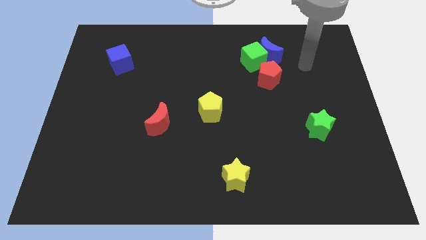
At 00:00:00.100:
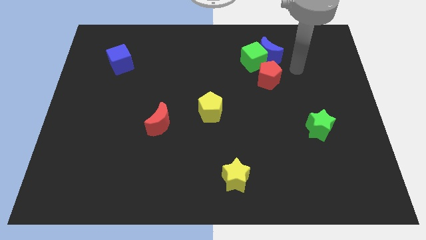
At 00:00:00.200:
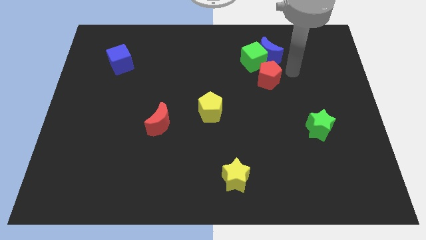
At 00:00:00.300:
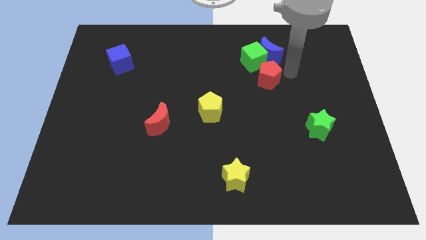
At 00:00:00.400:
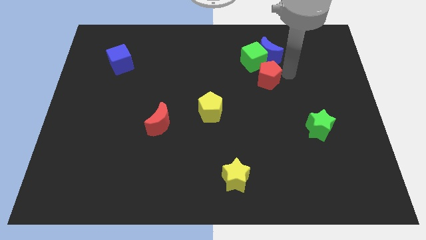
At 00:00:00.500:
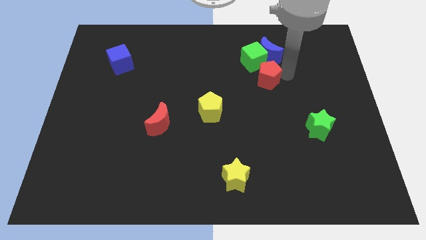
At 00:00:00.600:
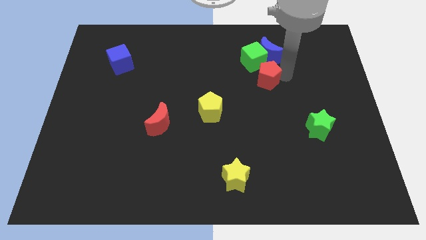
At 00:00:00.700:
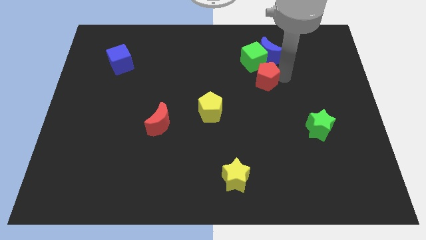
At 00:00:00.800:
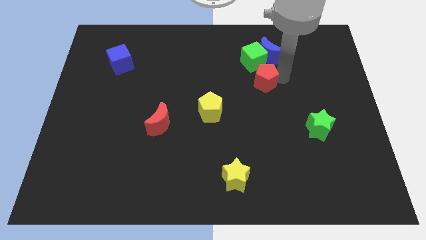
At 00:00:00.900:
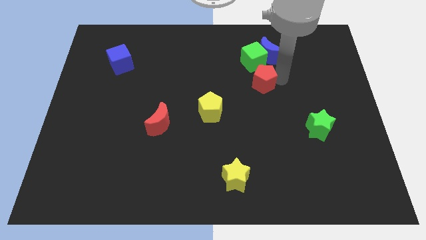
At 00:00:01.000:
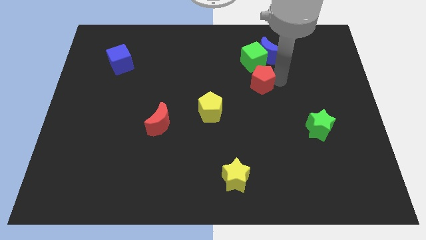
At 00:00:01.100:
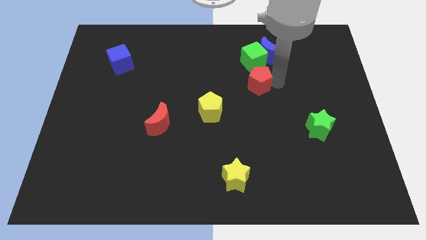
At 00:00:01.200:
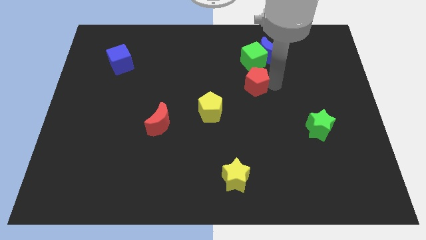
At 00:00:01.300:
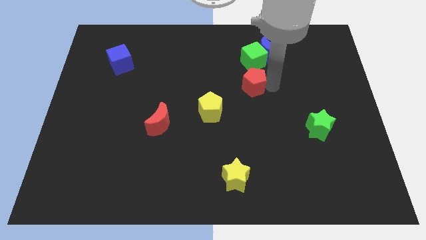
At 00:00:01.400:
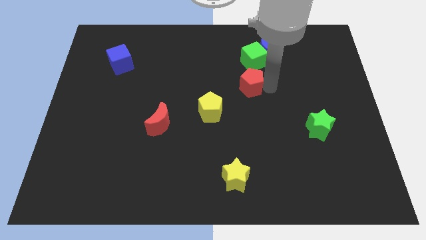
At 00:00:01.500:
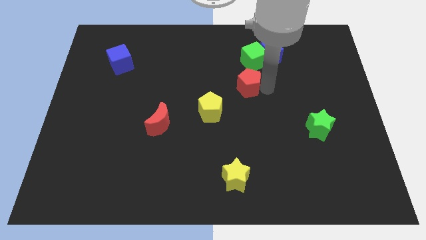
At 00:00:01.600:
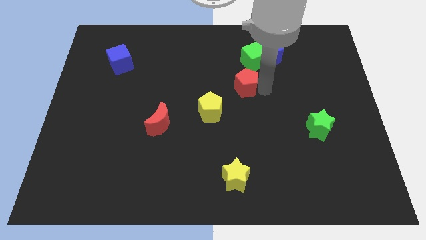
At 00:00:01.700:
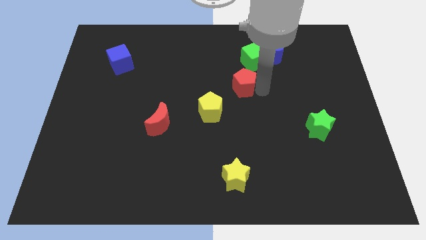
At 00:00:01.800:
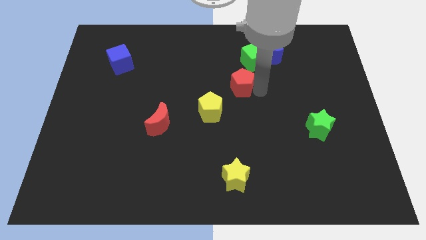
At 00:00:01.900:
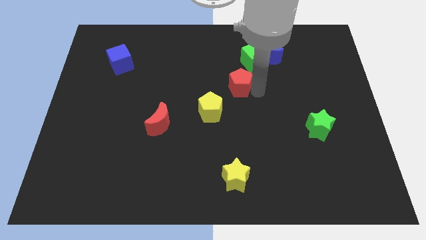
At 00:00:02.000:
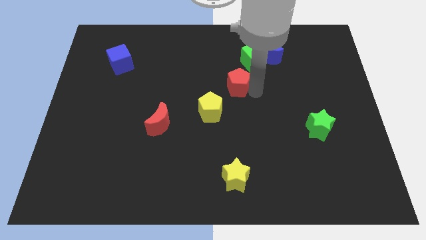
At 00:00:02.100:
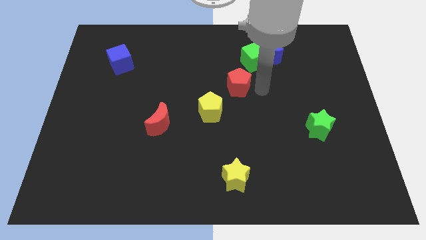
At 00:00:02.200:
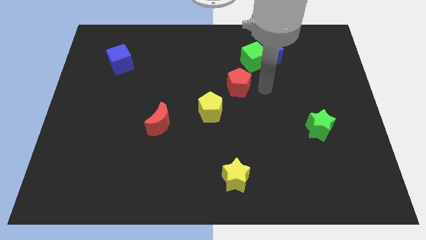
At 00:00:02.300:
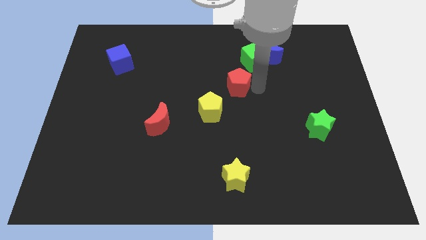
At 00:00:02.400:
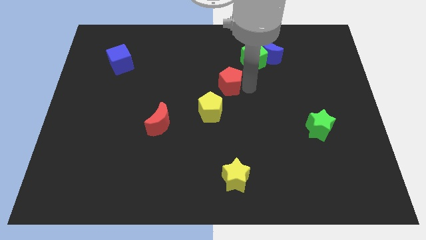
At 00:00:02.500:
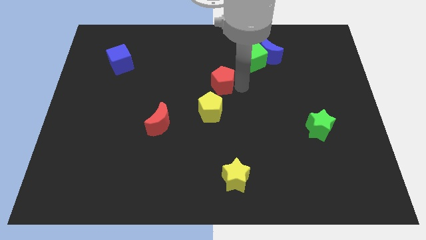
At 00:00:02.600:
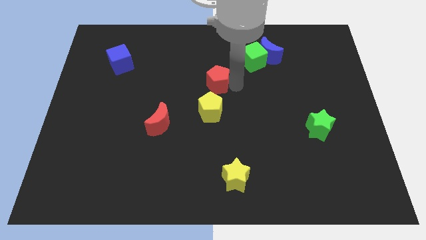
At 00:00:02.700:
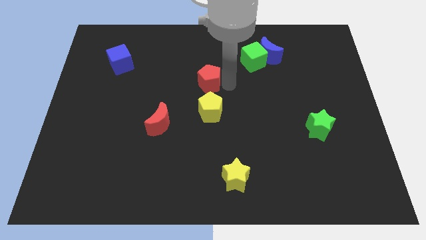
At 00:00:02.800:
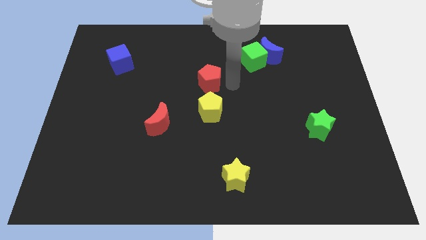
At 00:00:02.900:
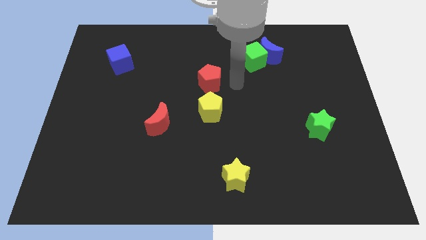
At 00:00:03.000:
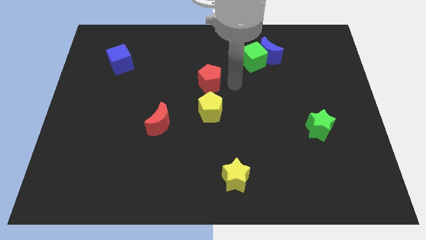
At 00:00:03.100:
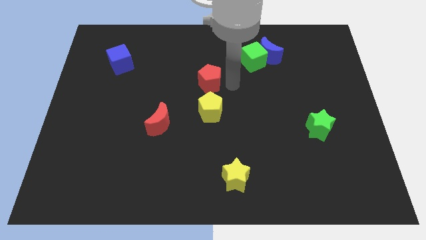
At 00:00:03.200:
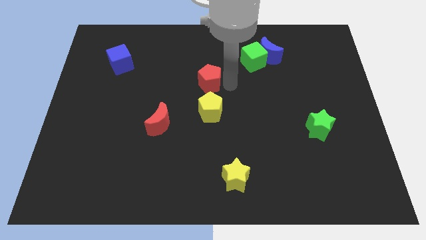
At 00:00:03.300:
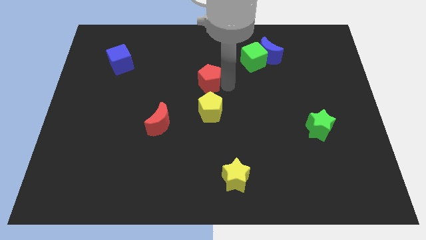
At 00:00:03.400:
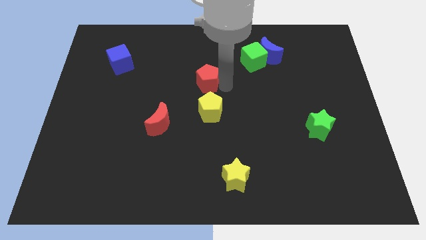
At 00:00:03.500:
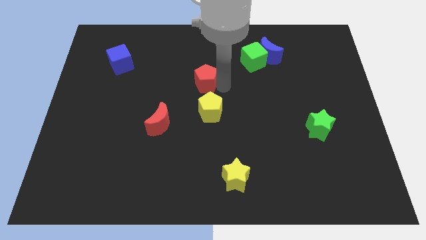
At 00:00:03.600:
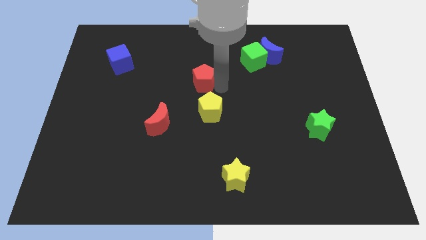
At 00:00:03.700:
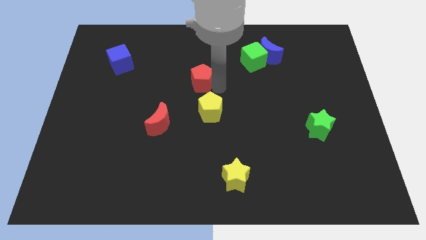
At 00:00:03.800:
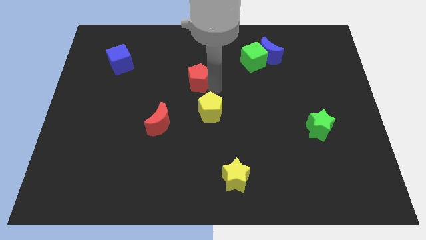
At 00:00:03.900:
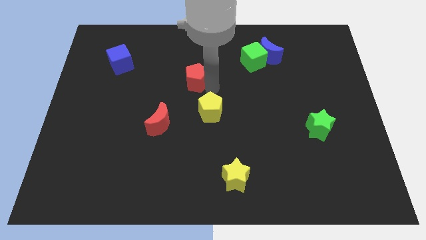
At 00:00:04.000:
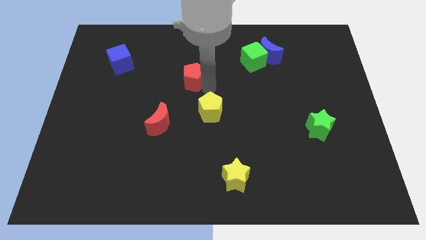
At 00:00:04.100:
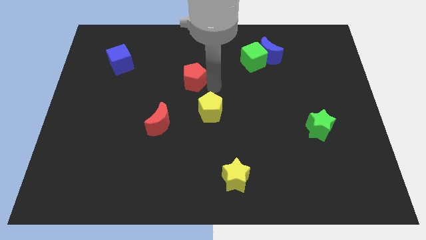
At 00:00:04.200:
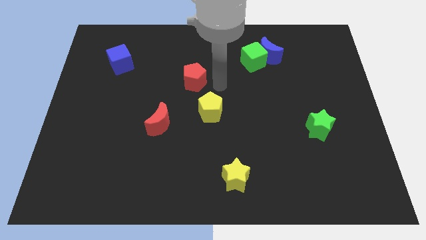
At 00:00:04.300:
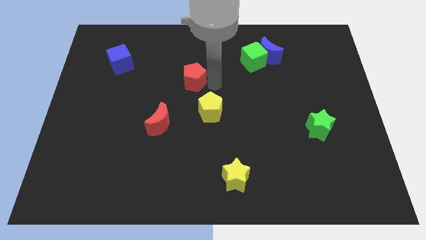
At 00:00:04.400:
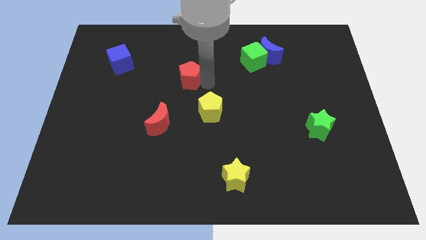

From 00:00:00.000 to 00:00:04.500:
push the red pentagon to the left

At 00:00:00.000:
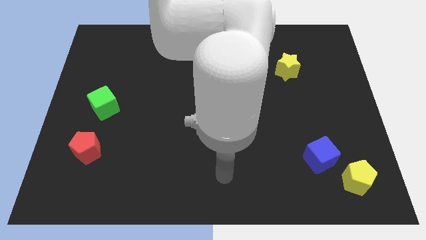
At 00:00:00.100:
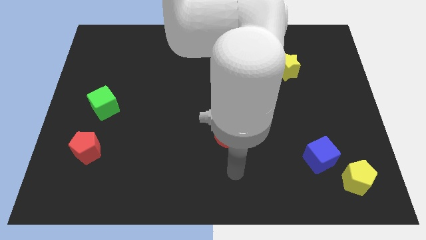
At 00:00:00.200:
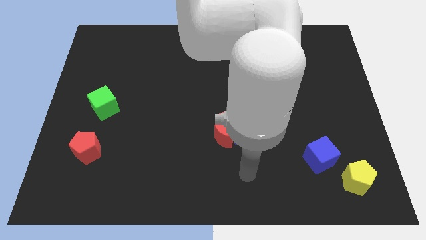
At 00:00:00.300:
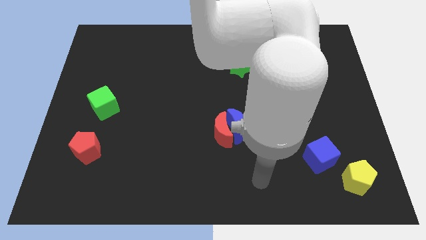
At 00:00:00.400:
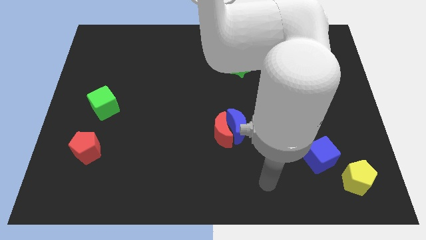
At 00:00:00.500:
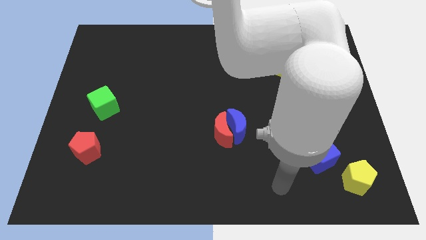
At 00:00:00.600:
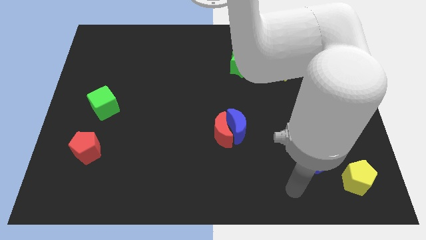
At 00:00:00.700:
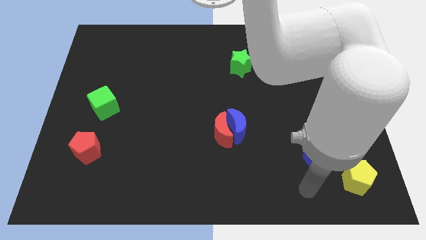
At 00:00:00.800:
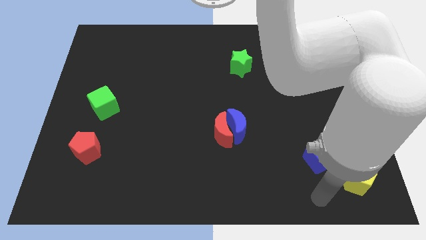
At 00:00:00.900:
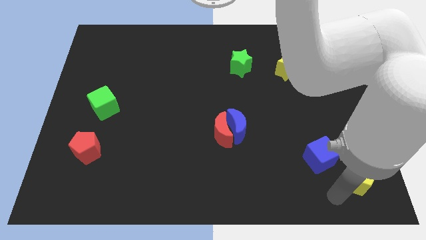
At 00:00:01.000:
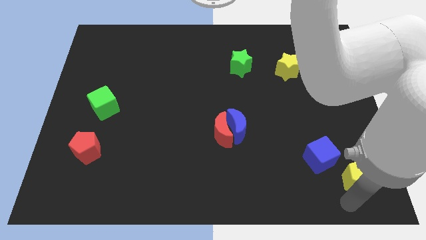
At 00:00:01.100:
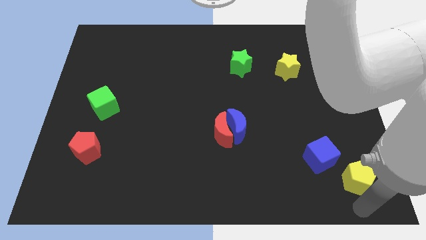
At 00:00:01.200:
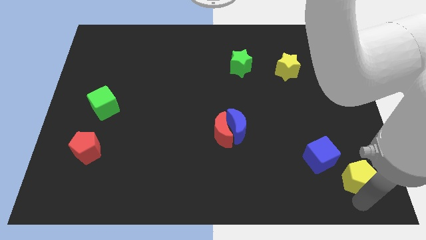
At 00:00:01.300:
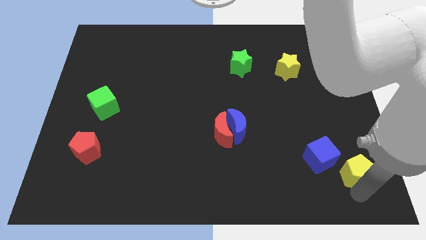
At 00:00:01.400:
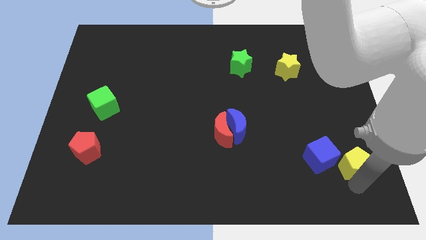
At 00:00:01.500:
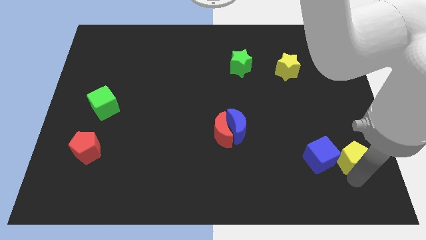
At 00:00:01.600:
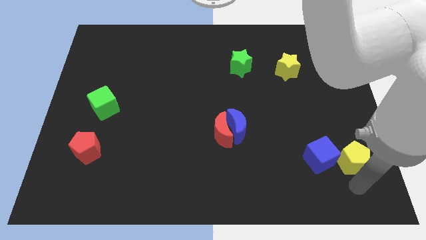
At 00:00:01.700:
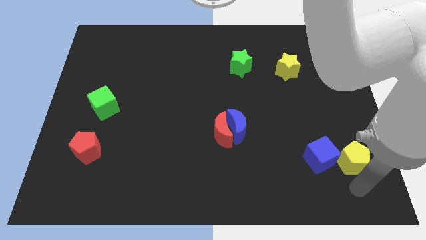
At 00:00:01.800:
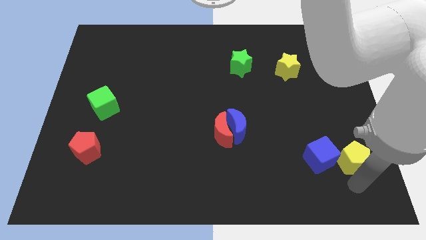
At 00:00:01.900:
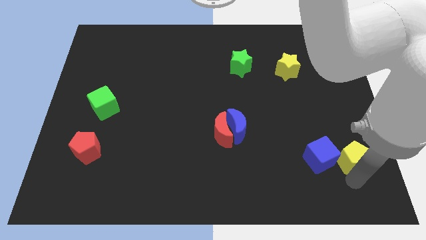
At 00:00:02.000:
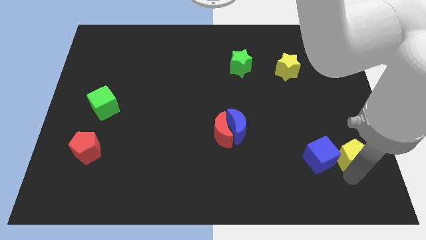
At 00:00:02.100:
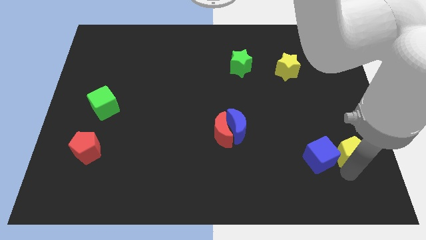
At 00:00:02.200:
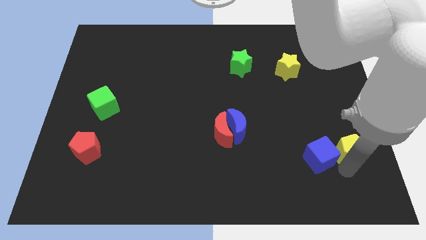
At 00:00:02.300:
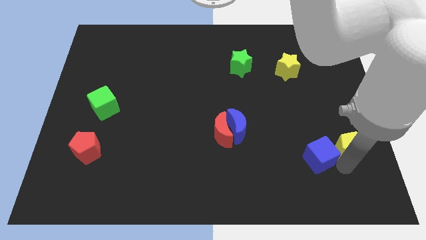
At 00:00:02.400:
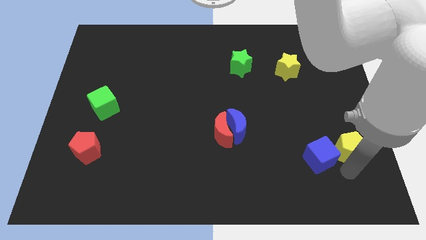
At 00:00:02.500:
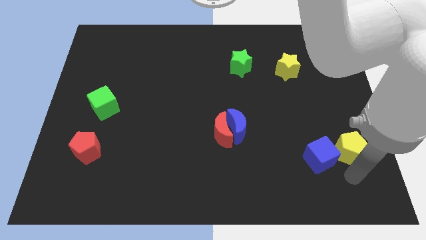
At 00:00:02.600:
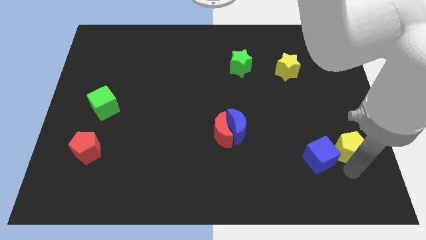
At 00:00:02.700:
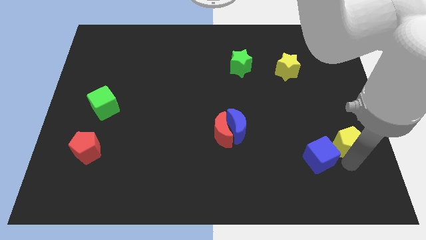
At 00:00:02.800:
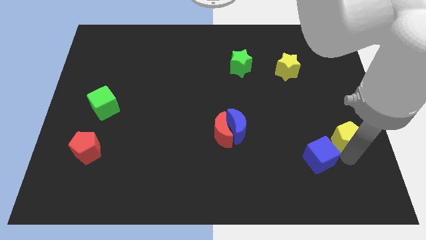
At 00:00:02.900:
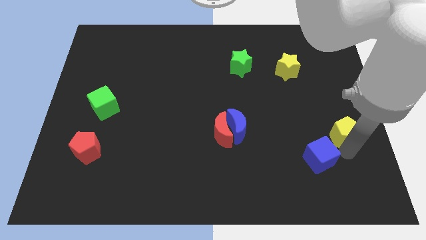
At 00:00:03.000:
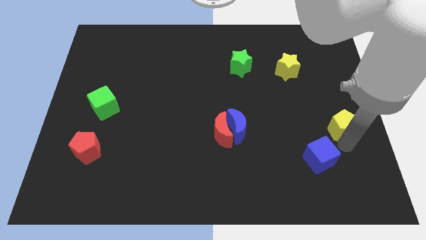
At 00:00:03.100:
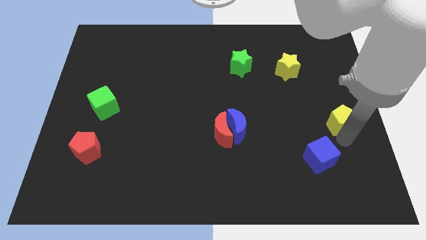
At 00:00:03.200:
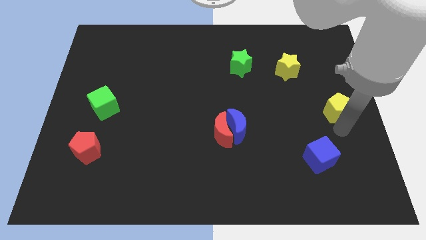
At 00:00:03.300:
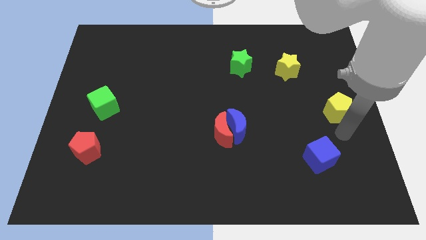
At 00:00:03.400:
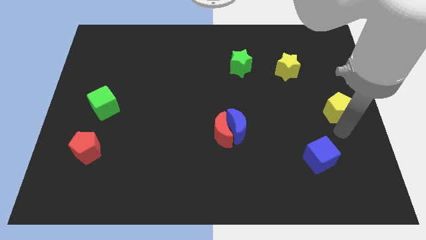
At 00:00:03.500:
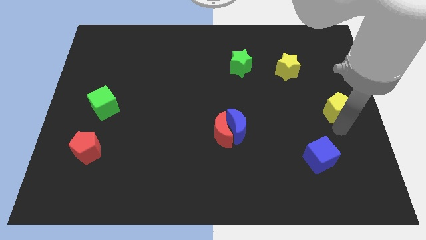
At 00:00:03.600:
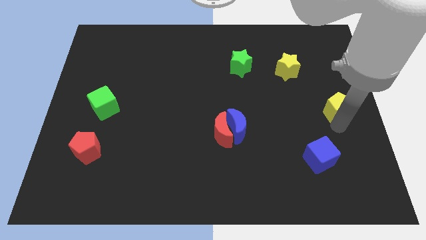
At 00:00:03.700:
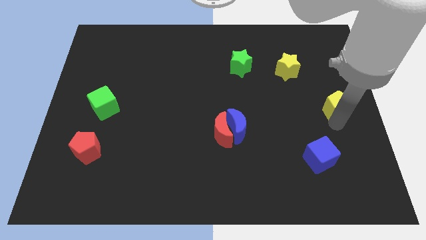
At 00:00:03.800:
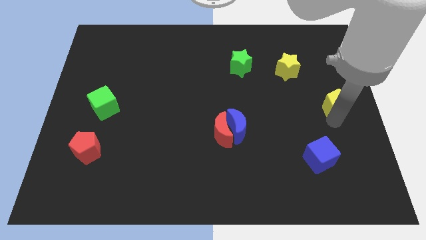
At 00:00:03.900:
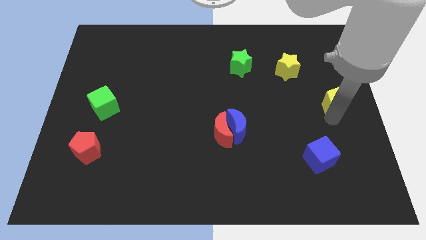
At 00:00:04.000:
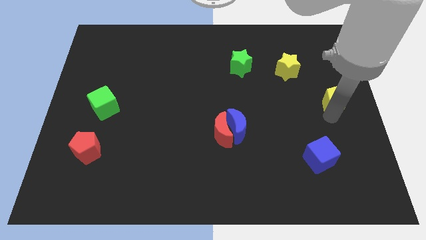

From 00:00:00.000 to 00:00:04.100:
move the yellow pentagon up
